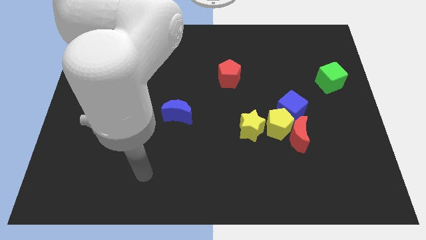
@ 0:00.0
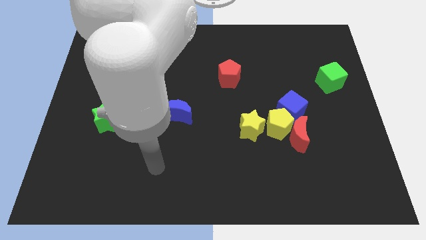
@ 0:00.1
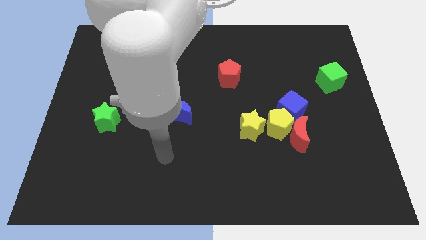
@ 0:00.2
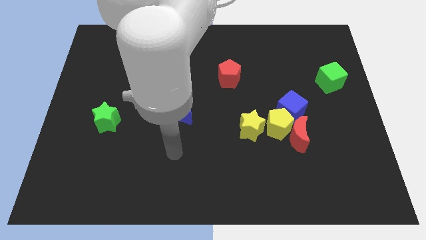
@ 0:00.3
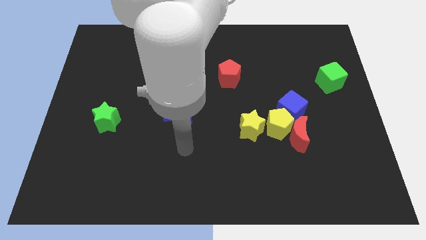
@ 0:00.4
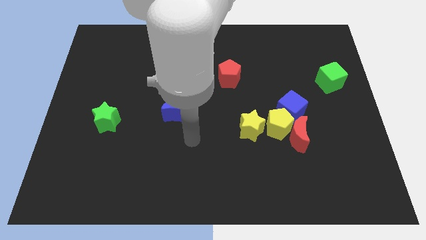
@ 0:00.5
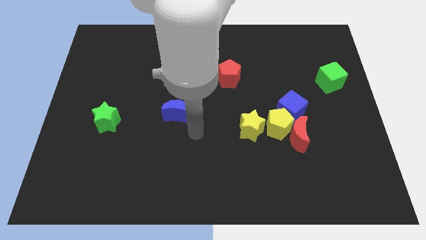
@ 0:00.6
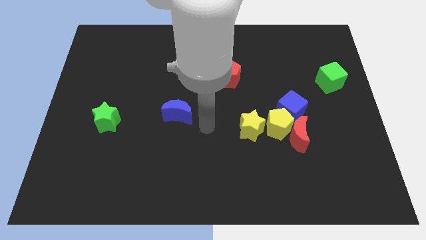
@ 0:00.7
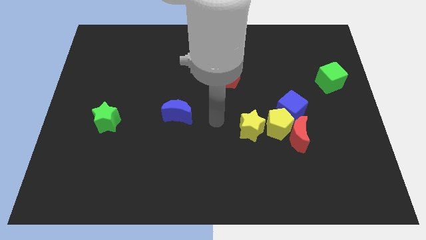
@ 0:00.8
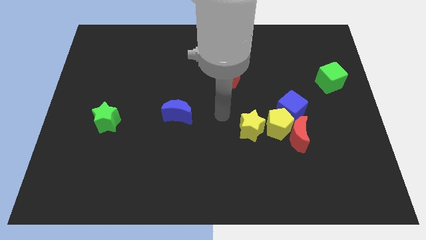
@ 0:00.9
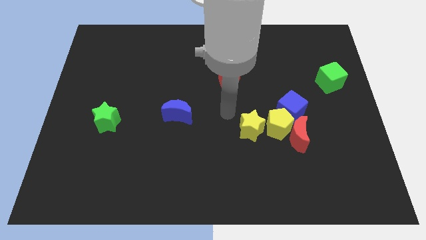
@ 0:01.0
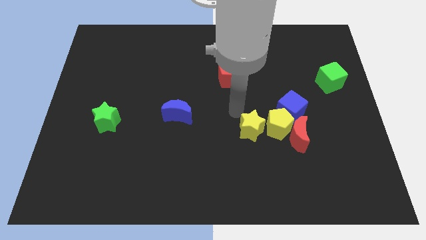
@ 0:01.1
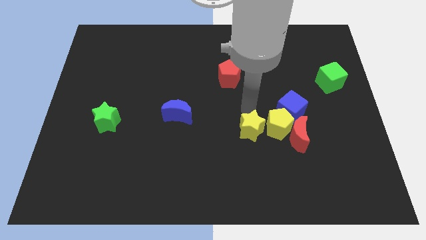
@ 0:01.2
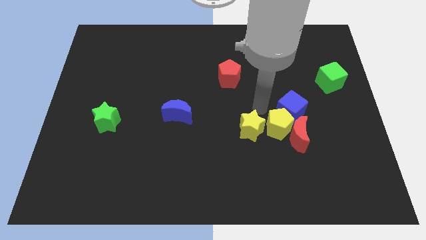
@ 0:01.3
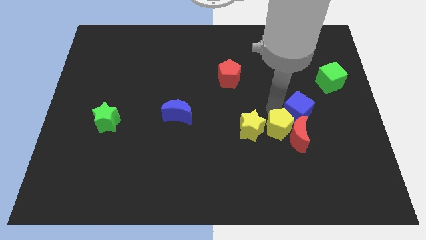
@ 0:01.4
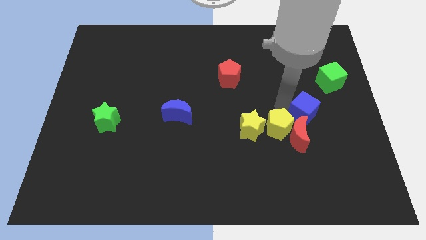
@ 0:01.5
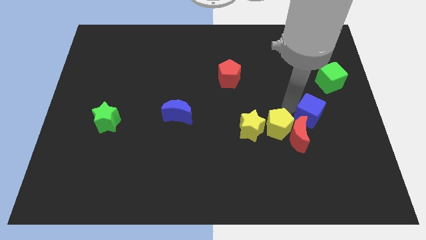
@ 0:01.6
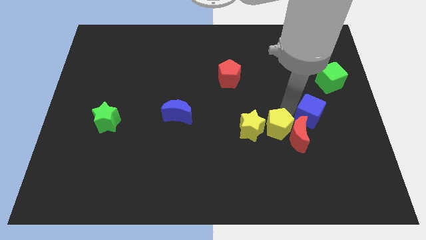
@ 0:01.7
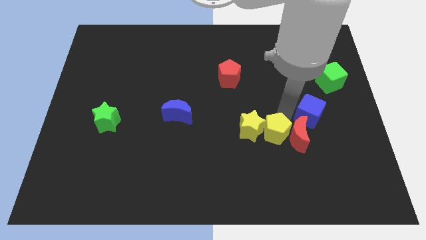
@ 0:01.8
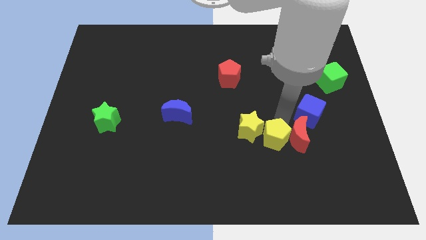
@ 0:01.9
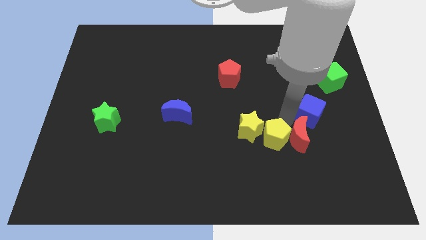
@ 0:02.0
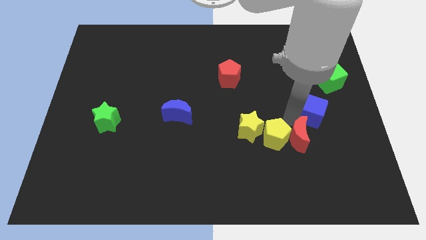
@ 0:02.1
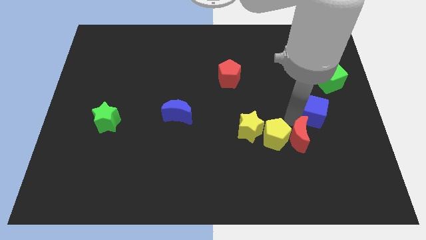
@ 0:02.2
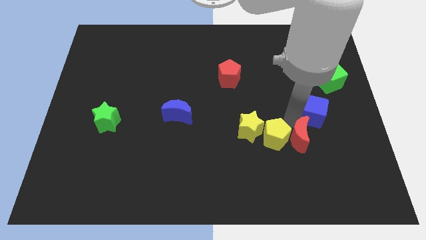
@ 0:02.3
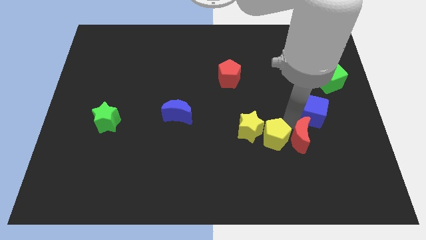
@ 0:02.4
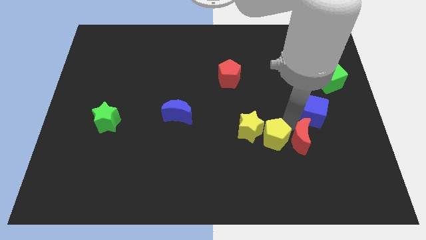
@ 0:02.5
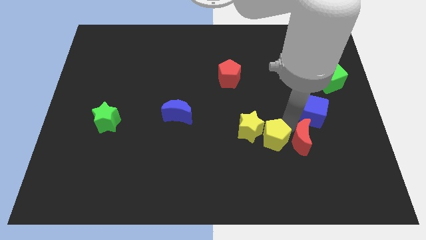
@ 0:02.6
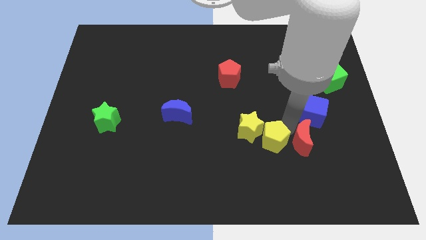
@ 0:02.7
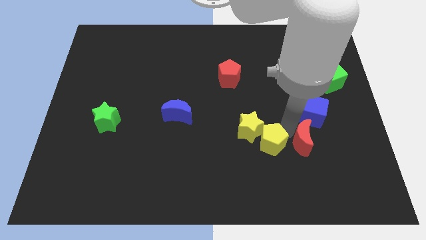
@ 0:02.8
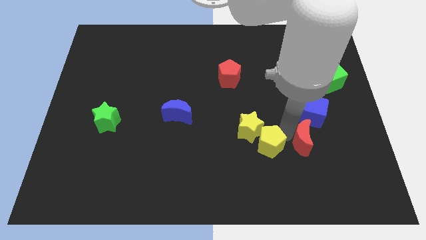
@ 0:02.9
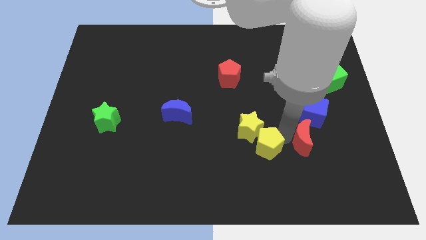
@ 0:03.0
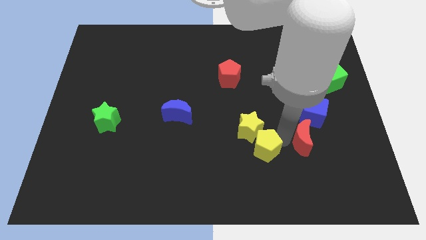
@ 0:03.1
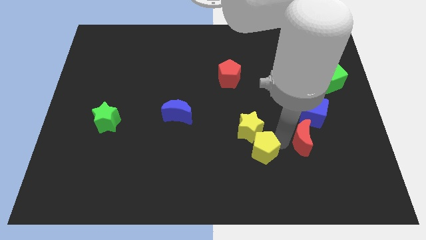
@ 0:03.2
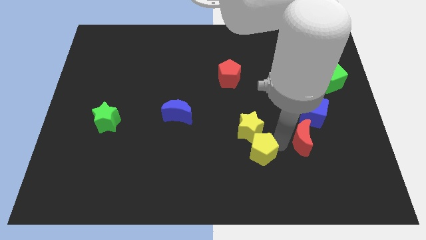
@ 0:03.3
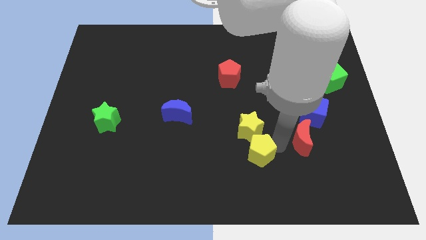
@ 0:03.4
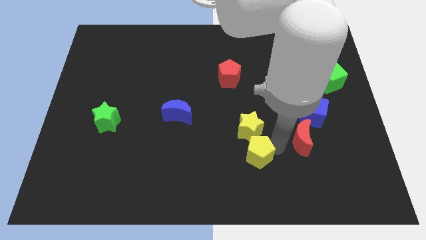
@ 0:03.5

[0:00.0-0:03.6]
move the yellow pentagon away from the red moon, blue cube, and yellow star

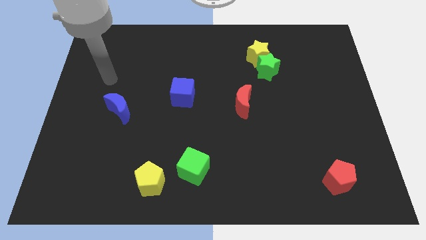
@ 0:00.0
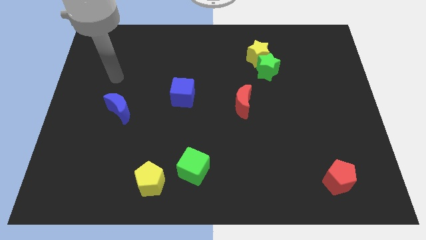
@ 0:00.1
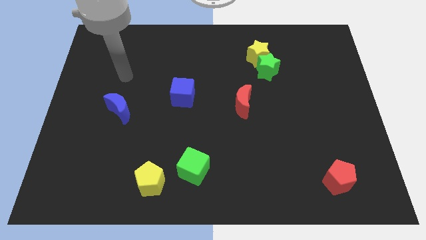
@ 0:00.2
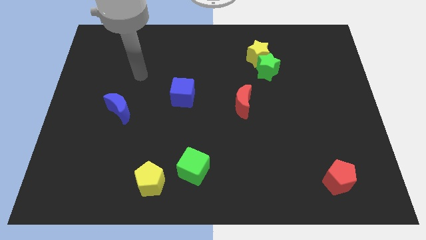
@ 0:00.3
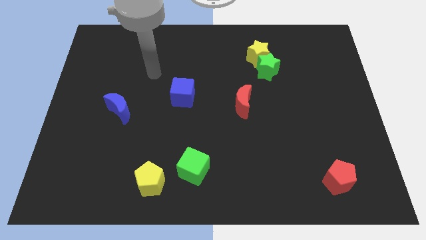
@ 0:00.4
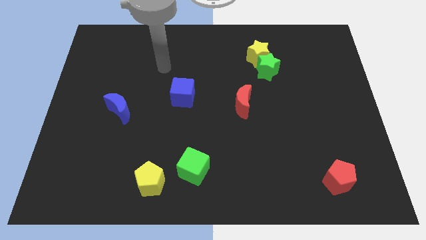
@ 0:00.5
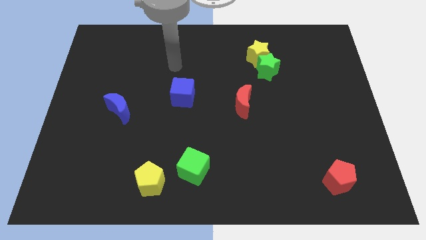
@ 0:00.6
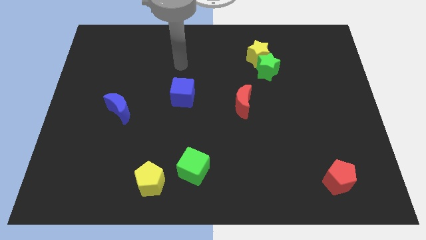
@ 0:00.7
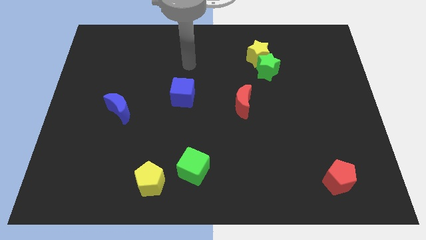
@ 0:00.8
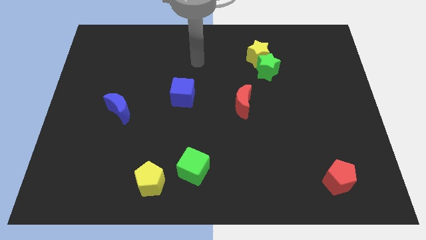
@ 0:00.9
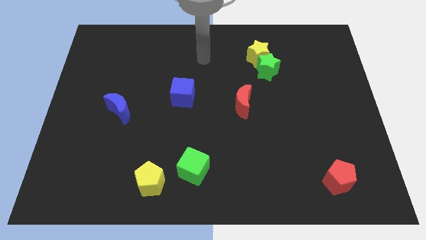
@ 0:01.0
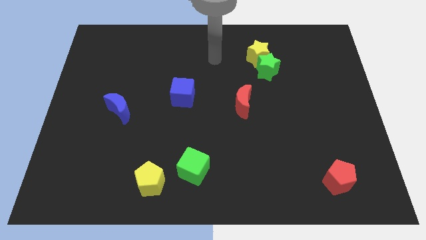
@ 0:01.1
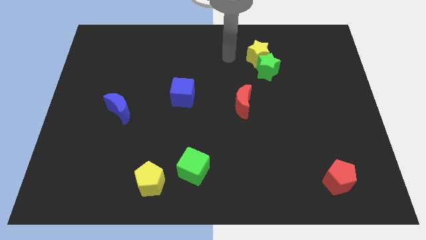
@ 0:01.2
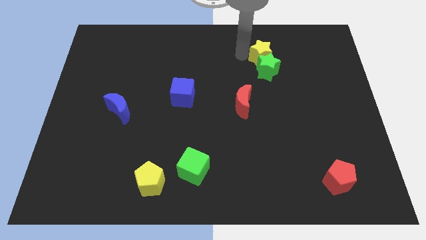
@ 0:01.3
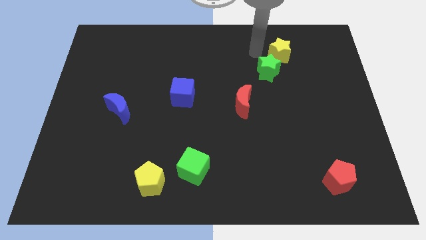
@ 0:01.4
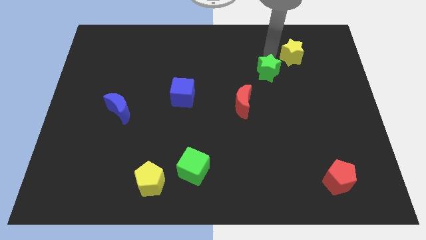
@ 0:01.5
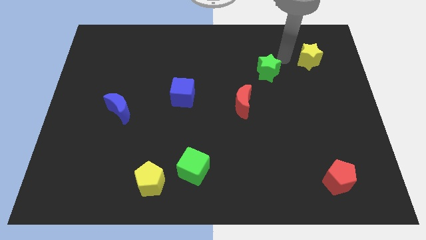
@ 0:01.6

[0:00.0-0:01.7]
move the green star away from the yellow star

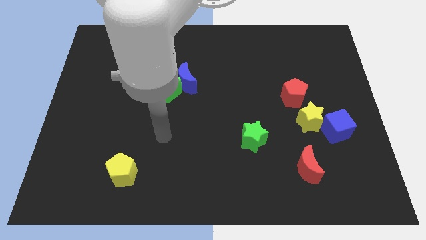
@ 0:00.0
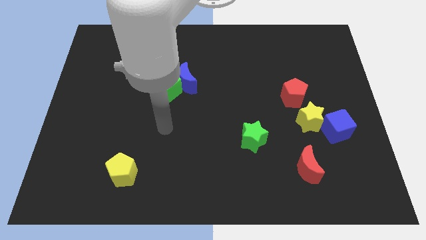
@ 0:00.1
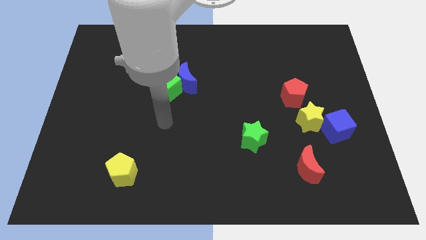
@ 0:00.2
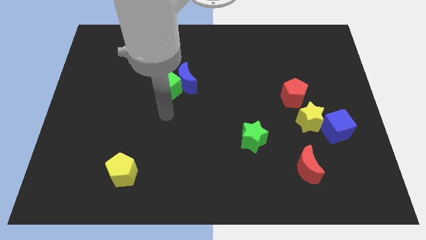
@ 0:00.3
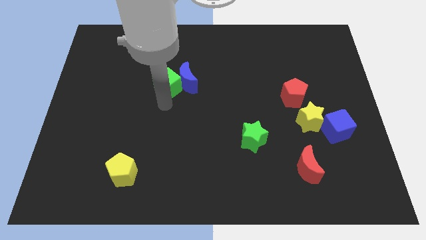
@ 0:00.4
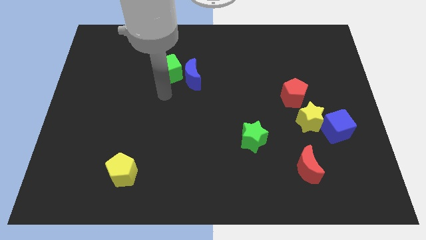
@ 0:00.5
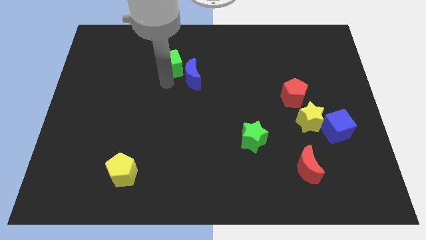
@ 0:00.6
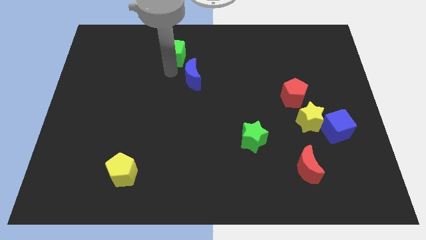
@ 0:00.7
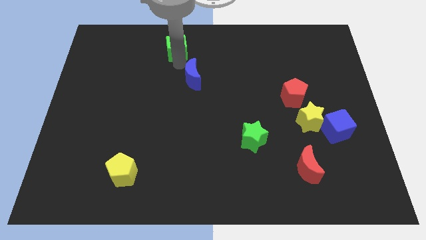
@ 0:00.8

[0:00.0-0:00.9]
separate the blue moon from the green cube

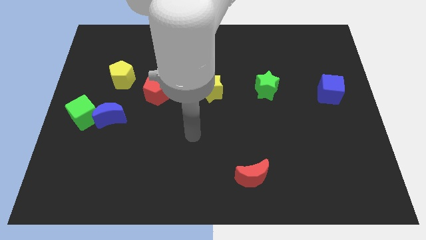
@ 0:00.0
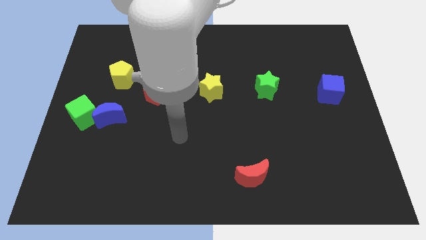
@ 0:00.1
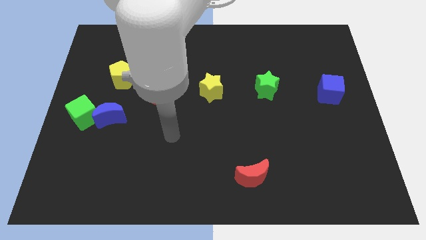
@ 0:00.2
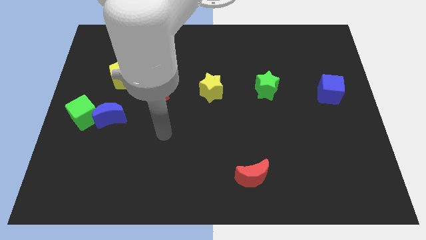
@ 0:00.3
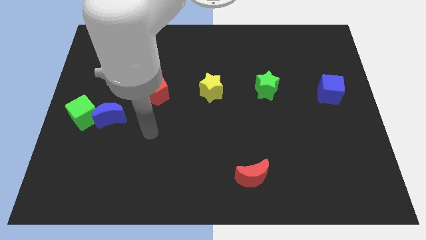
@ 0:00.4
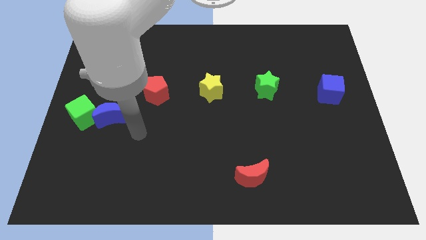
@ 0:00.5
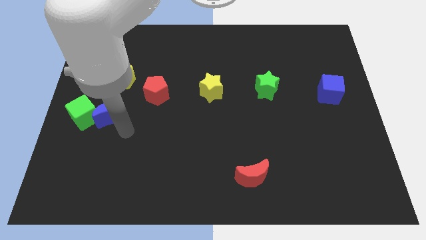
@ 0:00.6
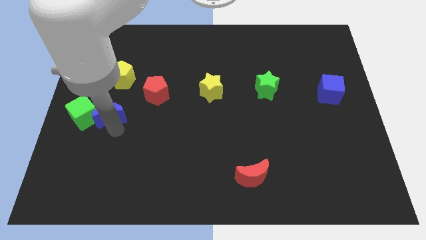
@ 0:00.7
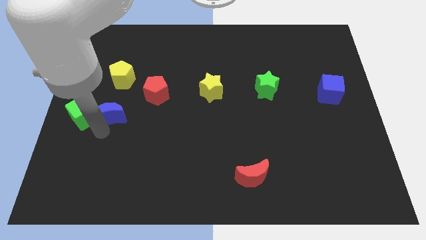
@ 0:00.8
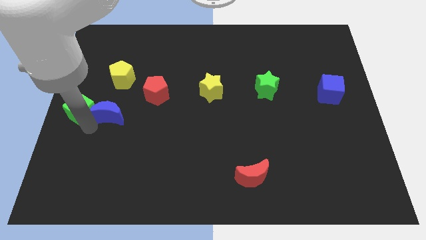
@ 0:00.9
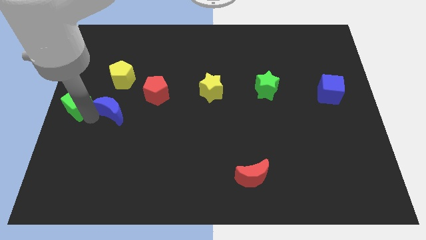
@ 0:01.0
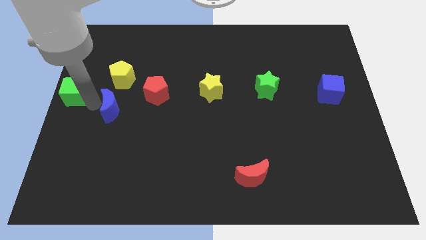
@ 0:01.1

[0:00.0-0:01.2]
pull the blue moon apart from the green cube

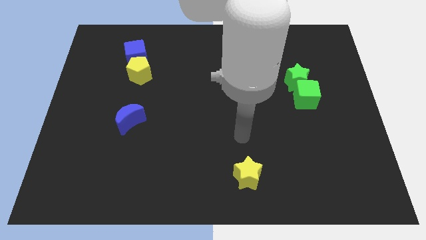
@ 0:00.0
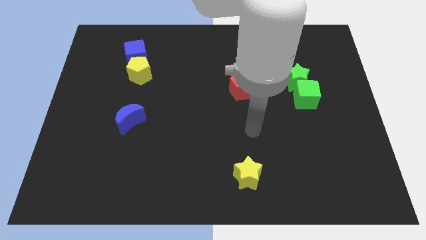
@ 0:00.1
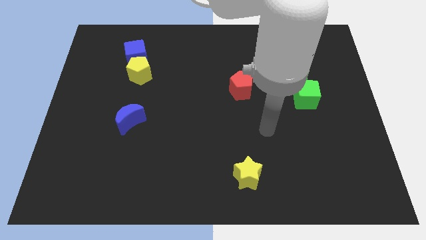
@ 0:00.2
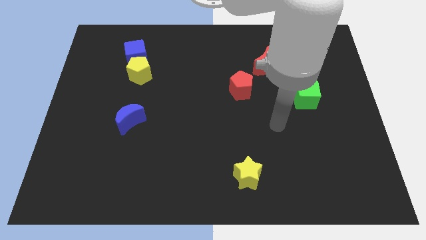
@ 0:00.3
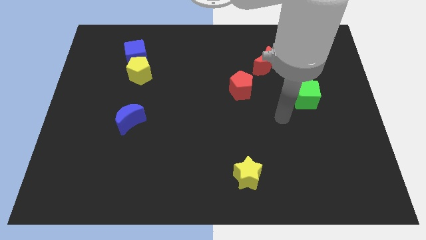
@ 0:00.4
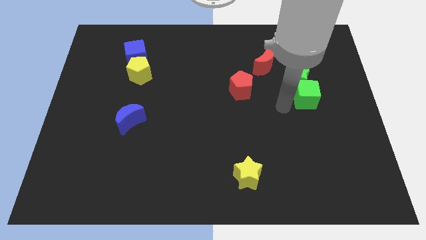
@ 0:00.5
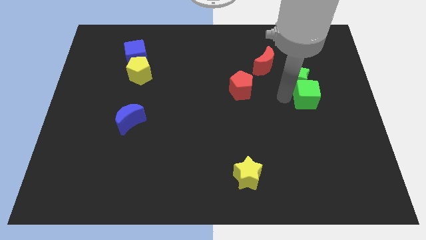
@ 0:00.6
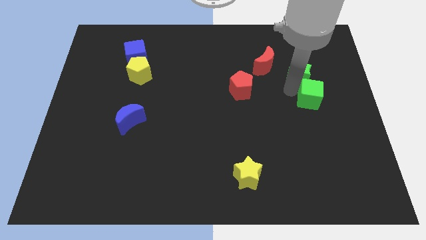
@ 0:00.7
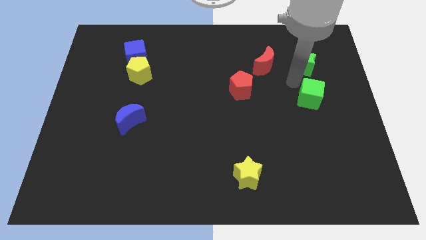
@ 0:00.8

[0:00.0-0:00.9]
separate the green cube from the green star

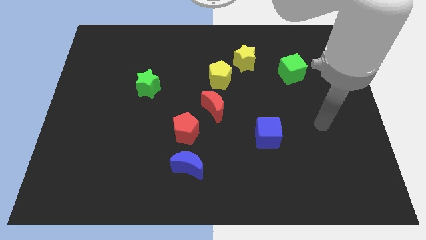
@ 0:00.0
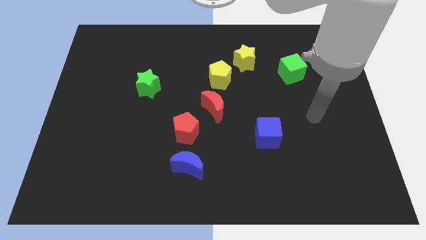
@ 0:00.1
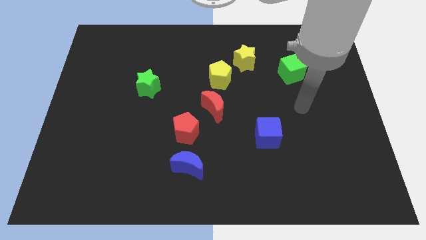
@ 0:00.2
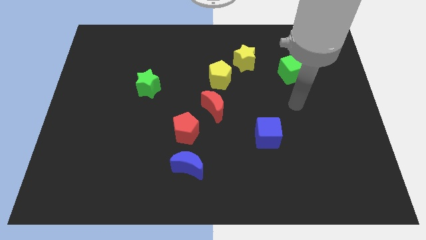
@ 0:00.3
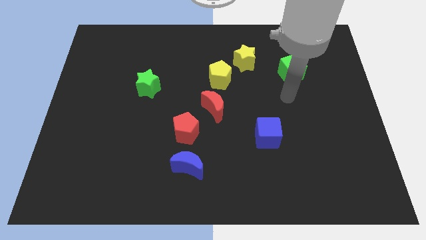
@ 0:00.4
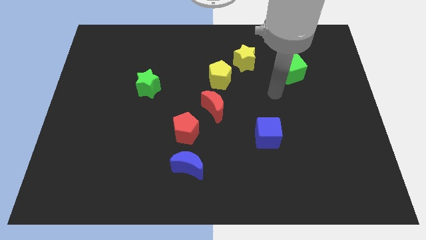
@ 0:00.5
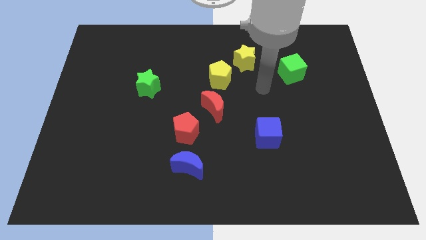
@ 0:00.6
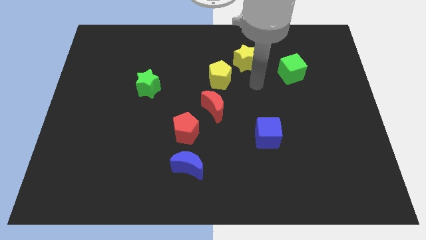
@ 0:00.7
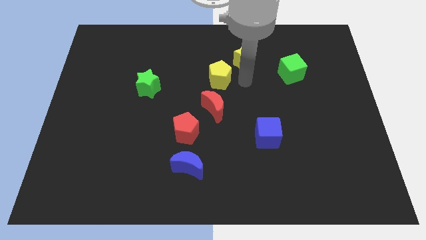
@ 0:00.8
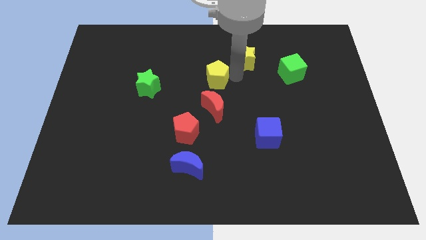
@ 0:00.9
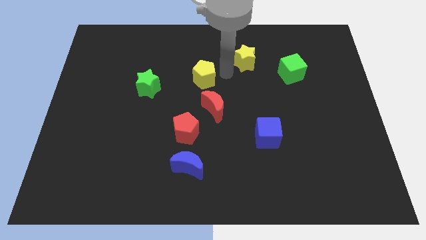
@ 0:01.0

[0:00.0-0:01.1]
move the yellow star away from the yellow pentagon
